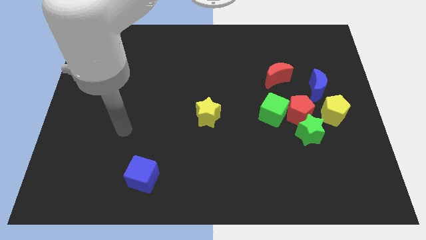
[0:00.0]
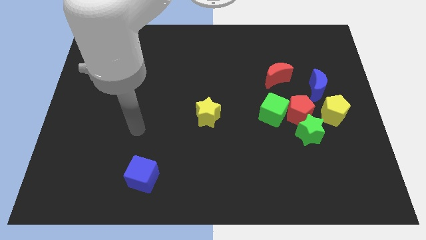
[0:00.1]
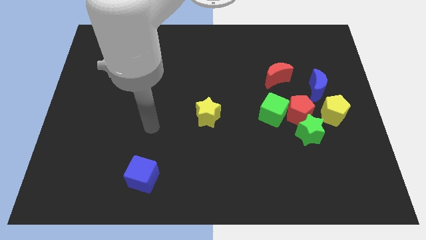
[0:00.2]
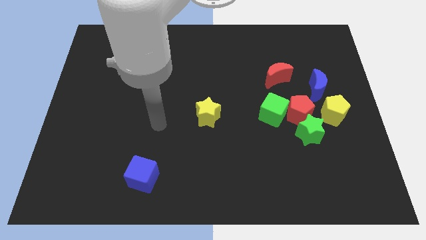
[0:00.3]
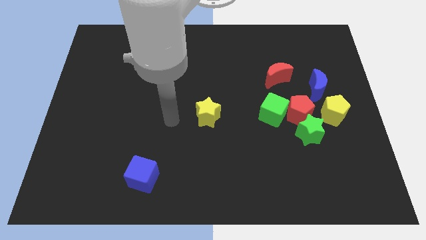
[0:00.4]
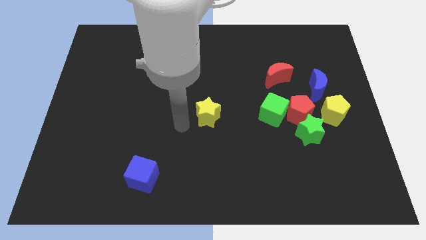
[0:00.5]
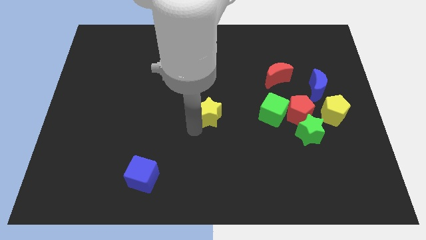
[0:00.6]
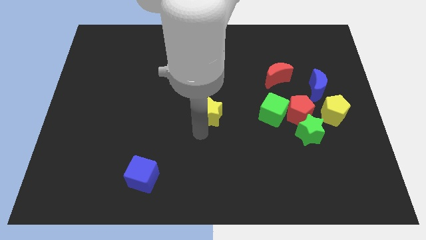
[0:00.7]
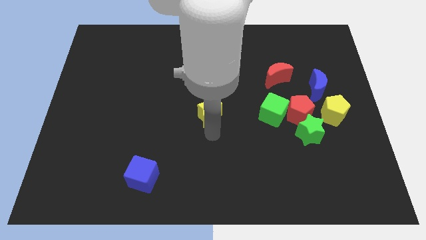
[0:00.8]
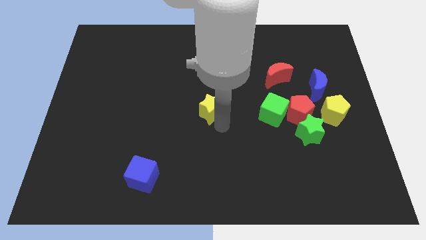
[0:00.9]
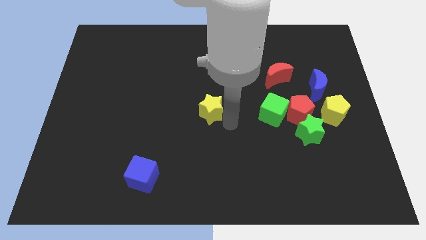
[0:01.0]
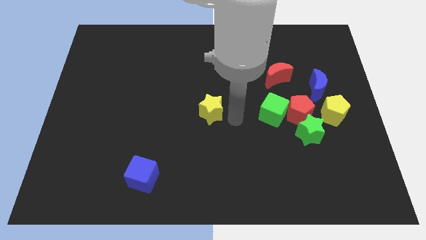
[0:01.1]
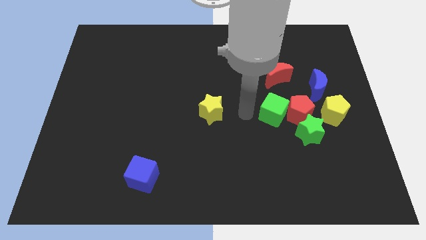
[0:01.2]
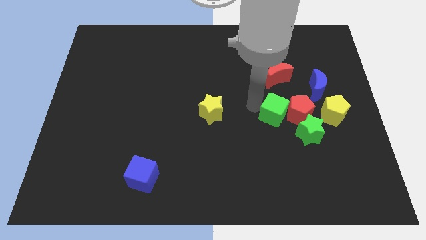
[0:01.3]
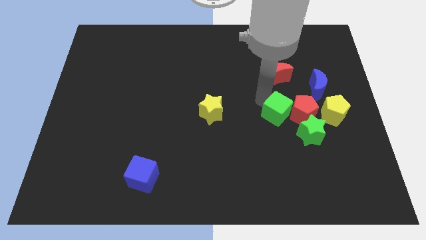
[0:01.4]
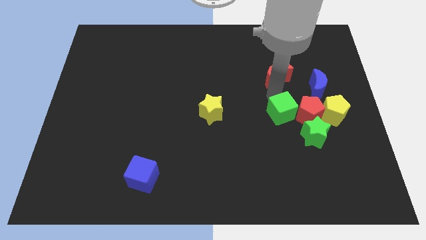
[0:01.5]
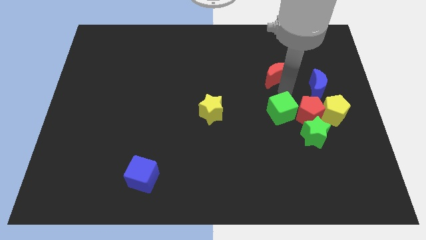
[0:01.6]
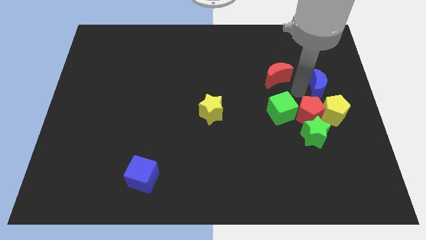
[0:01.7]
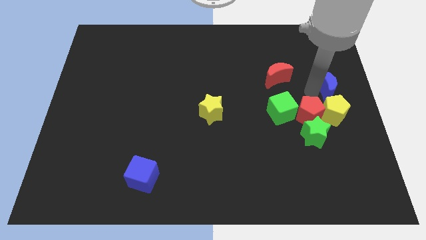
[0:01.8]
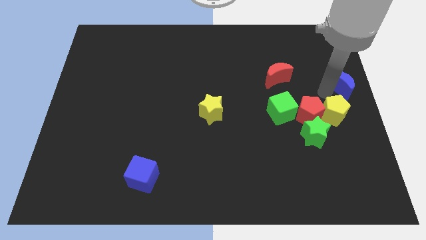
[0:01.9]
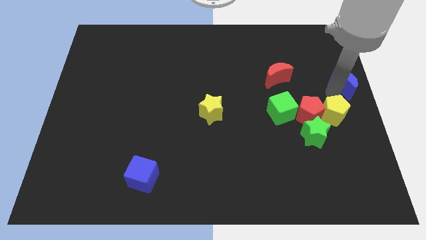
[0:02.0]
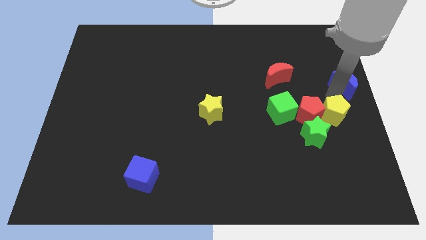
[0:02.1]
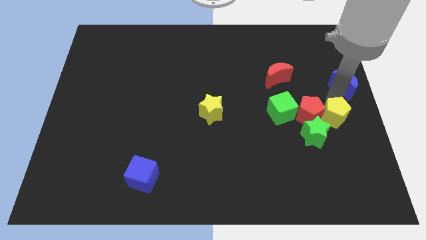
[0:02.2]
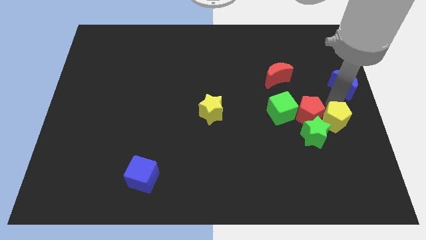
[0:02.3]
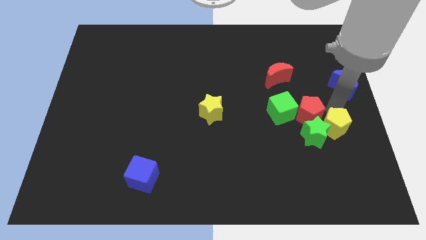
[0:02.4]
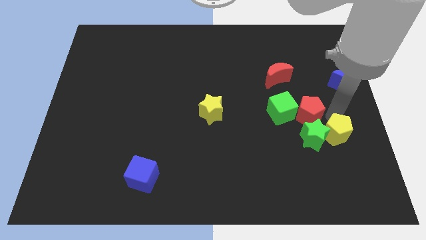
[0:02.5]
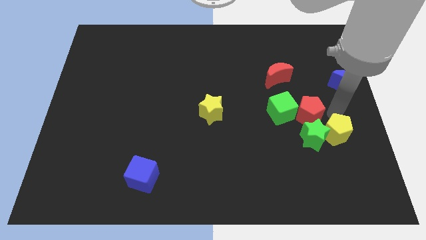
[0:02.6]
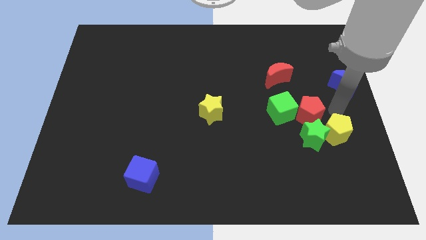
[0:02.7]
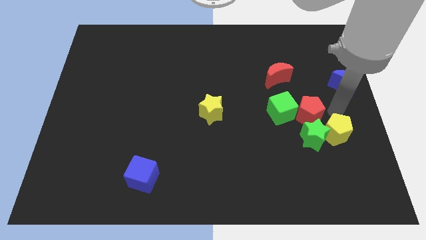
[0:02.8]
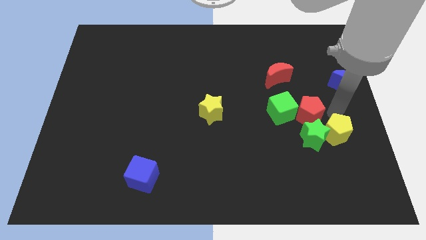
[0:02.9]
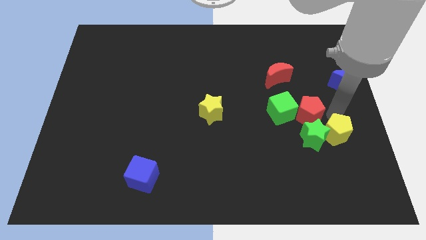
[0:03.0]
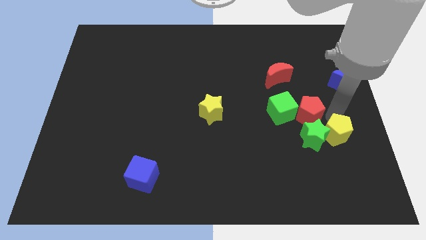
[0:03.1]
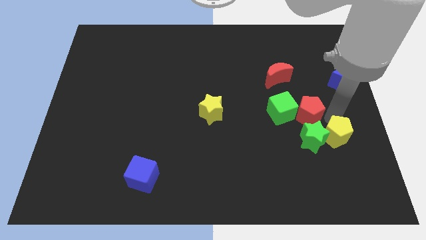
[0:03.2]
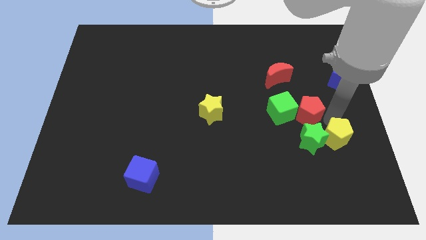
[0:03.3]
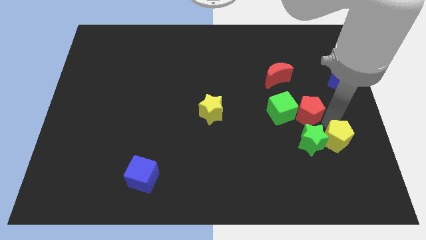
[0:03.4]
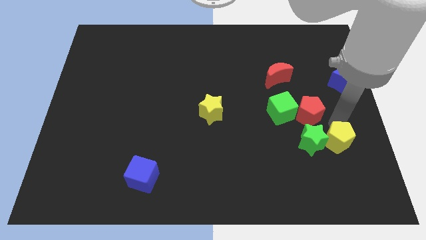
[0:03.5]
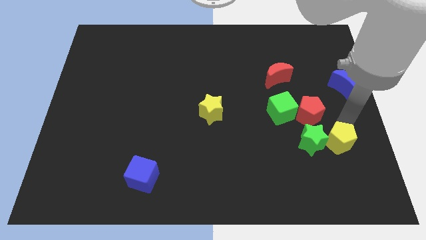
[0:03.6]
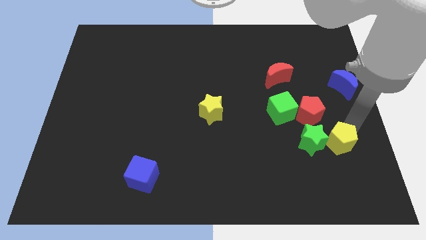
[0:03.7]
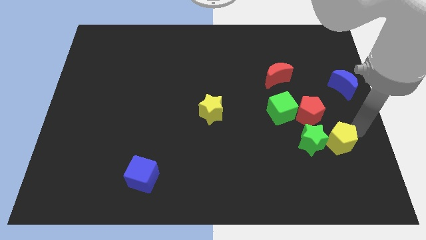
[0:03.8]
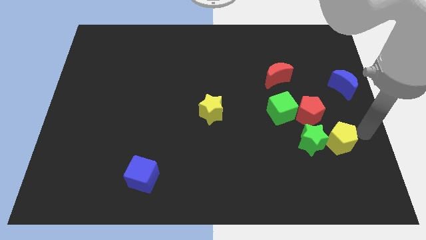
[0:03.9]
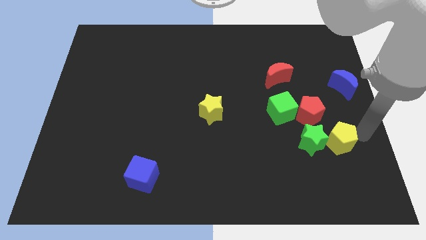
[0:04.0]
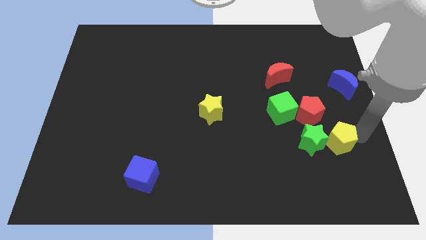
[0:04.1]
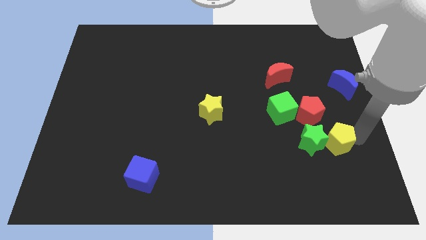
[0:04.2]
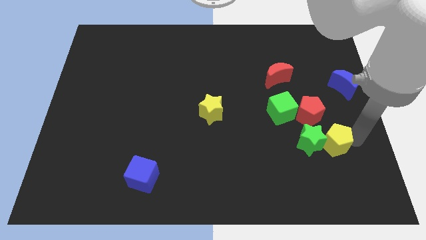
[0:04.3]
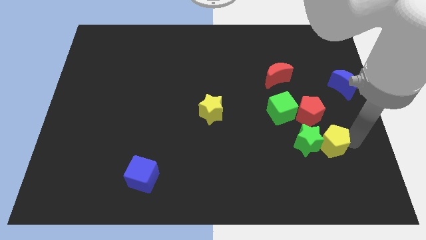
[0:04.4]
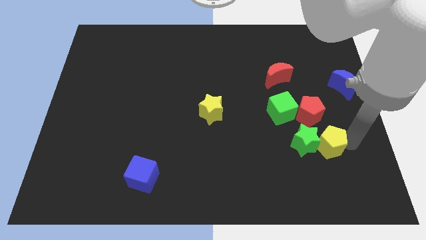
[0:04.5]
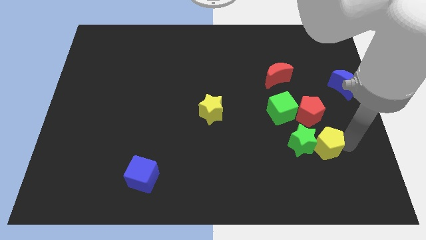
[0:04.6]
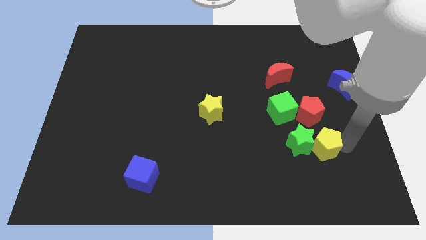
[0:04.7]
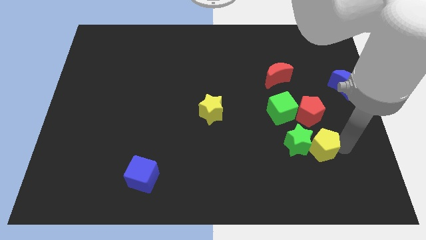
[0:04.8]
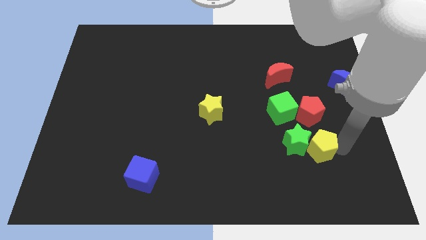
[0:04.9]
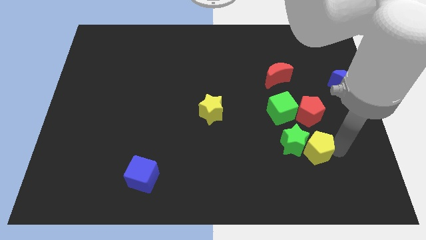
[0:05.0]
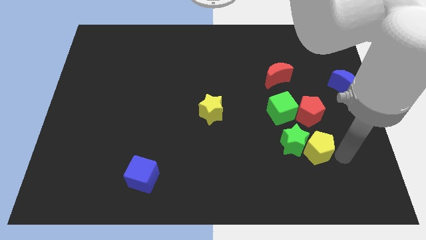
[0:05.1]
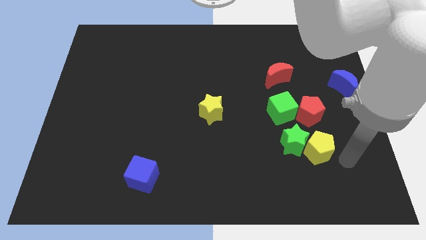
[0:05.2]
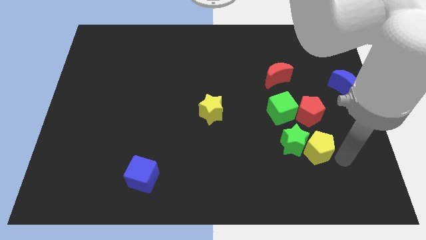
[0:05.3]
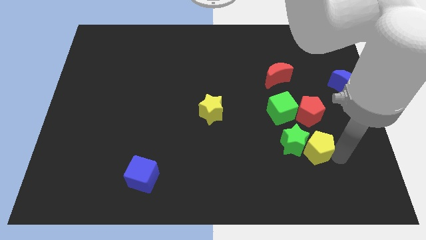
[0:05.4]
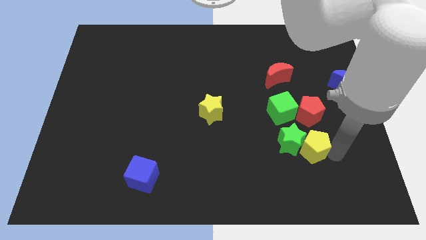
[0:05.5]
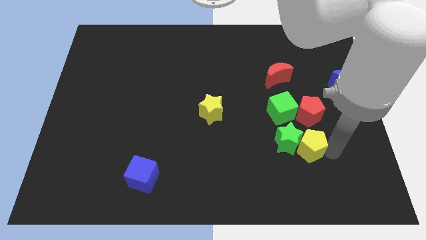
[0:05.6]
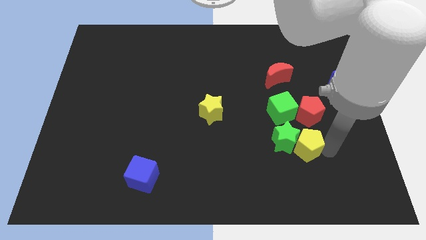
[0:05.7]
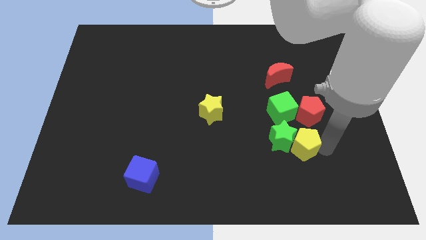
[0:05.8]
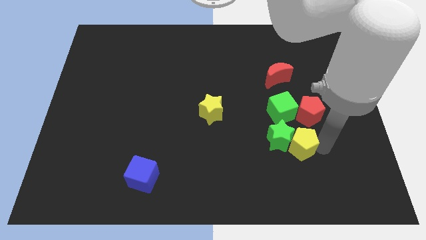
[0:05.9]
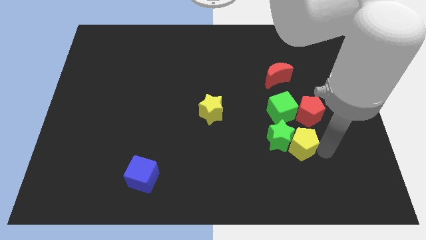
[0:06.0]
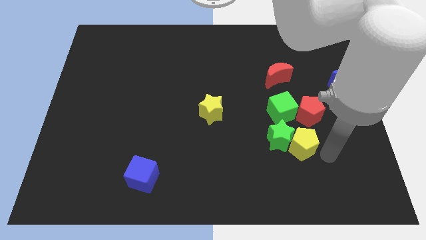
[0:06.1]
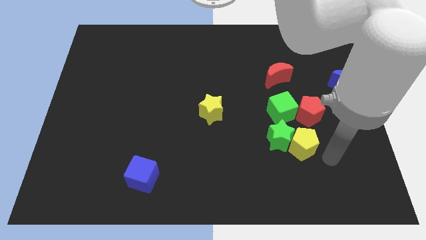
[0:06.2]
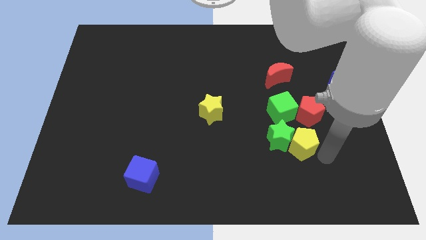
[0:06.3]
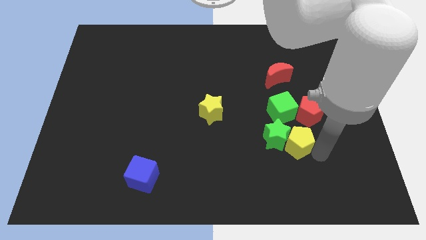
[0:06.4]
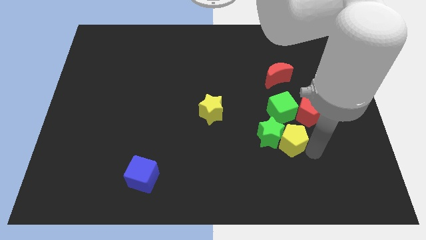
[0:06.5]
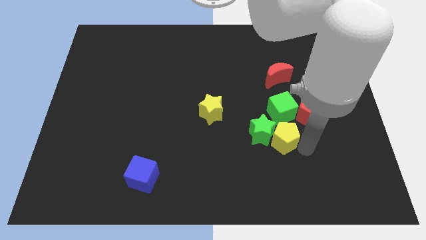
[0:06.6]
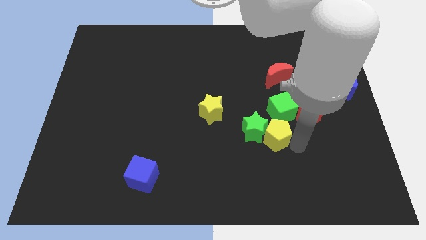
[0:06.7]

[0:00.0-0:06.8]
push the yellow pentagon diagonally down and to the left of the green cube
